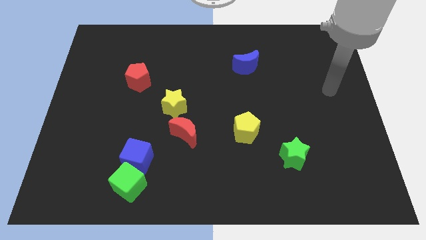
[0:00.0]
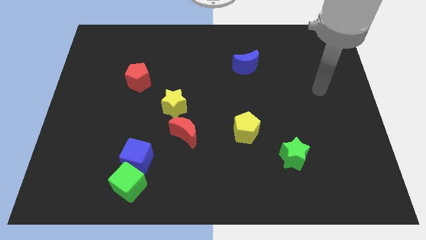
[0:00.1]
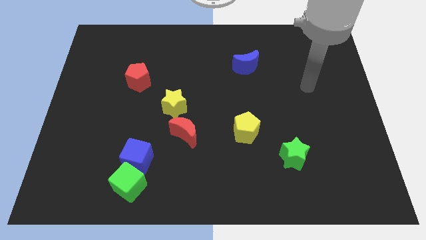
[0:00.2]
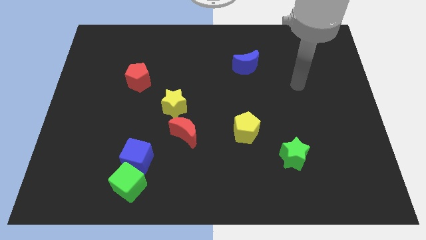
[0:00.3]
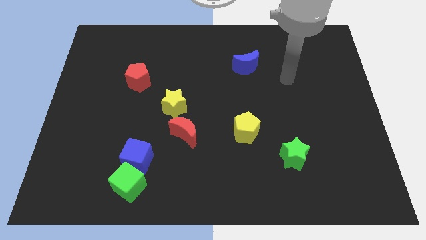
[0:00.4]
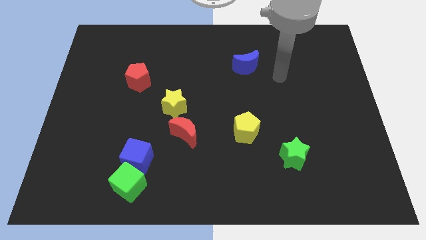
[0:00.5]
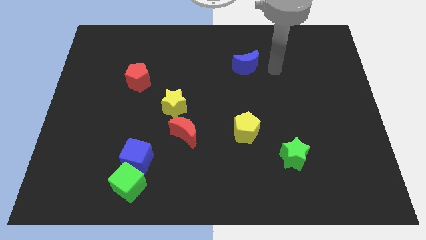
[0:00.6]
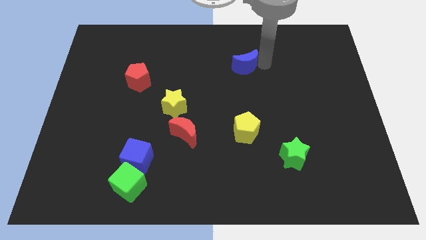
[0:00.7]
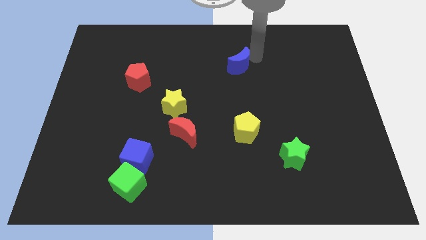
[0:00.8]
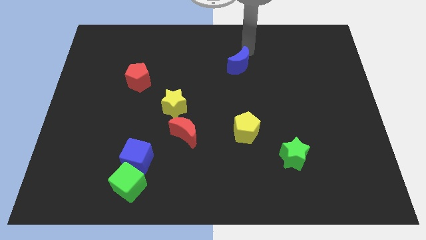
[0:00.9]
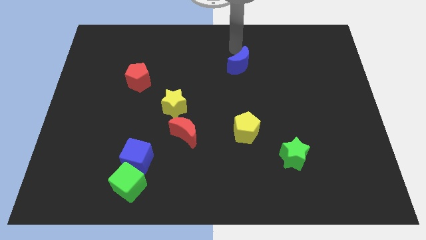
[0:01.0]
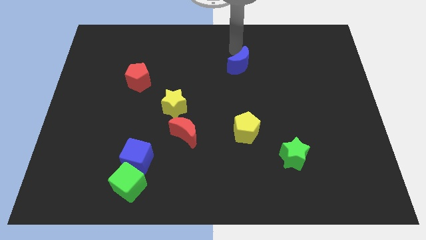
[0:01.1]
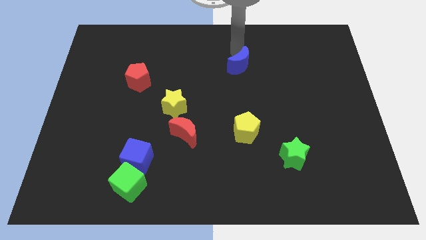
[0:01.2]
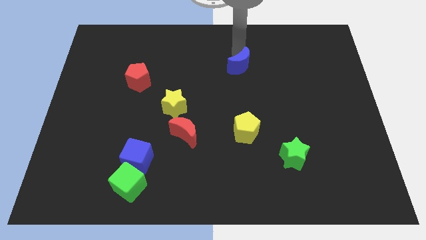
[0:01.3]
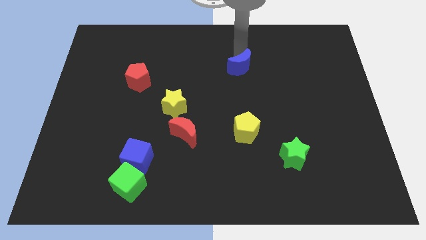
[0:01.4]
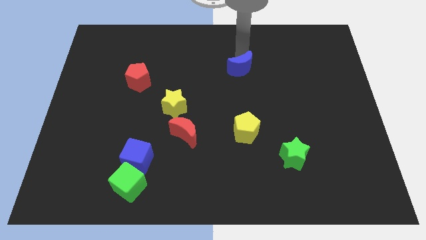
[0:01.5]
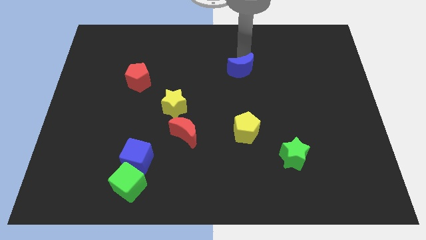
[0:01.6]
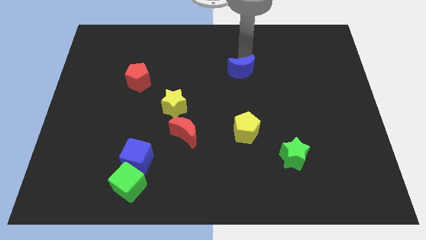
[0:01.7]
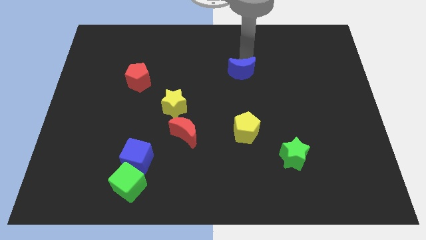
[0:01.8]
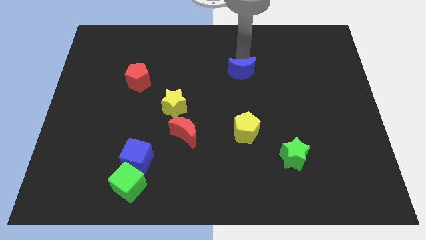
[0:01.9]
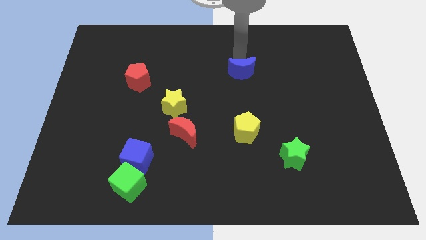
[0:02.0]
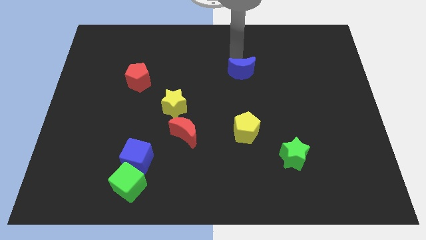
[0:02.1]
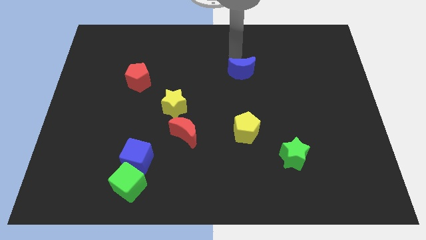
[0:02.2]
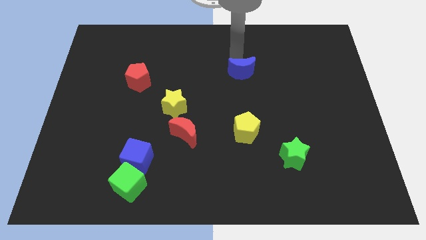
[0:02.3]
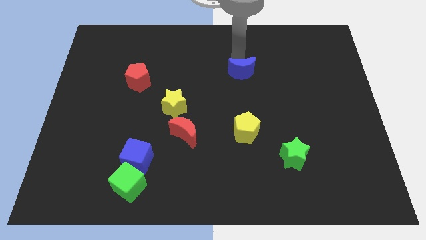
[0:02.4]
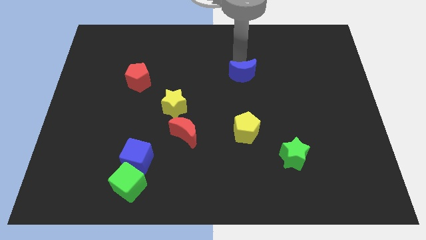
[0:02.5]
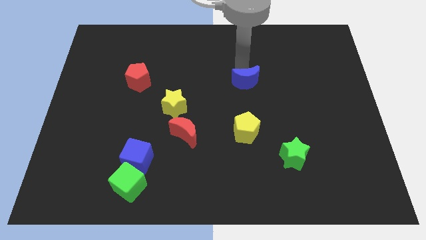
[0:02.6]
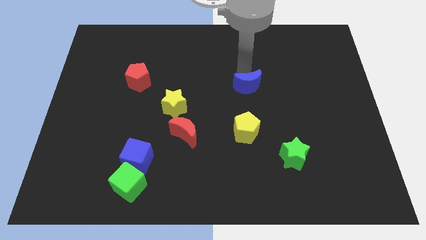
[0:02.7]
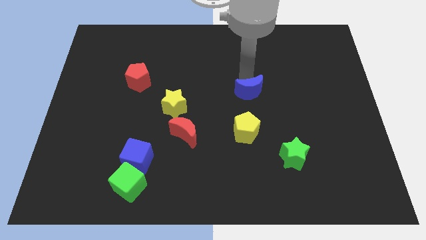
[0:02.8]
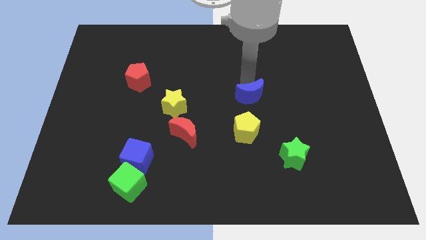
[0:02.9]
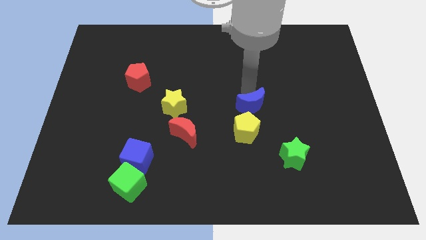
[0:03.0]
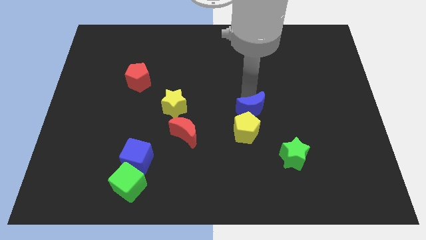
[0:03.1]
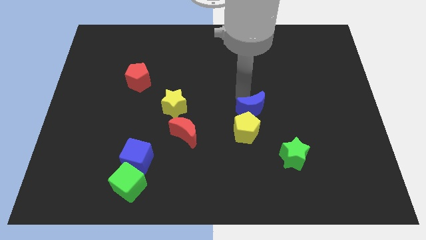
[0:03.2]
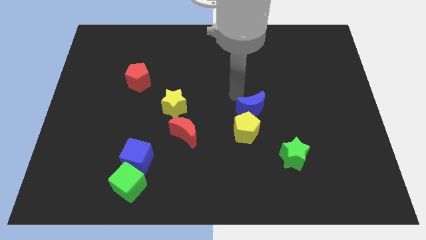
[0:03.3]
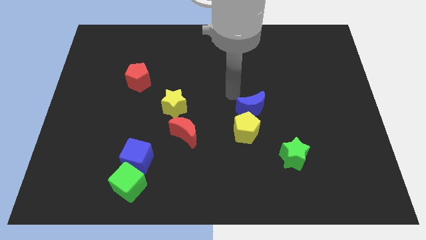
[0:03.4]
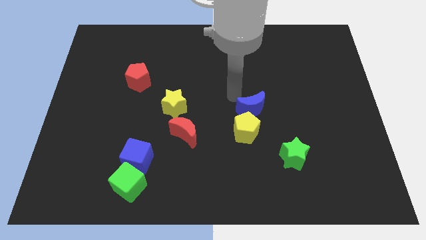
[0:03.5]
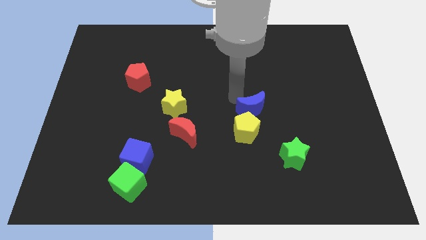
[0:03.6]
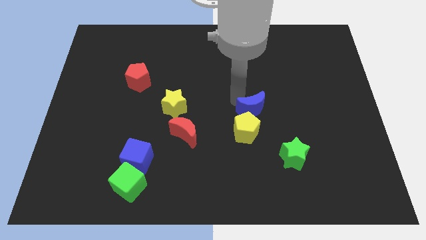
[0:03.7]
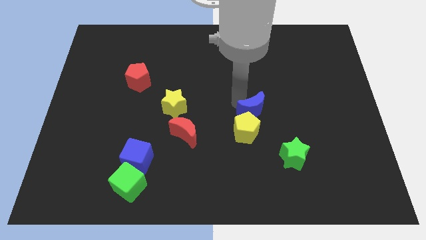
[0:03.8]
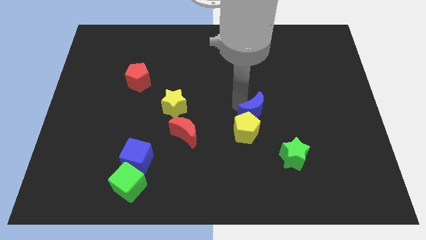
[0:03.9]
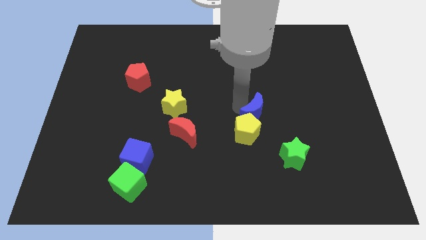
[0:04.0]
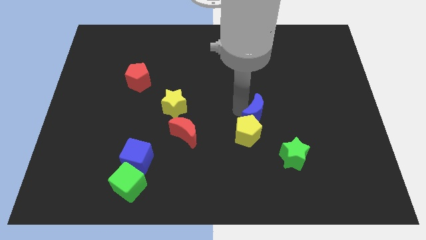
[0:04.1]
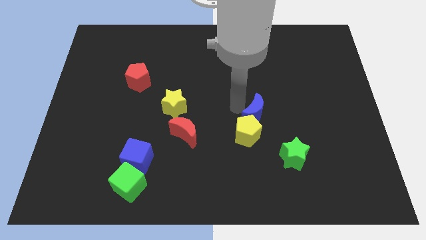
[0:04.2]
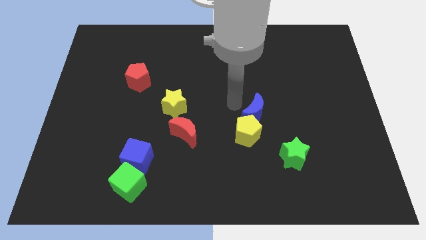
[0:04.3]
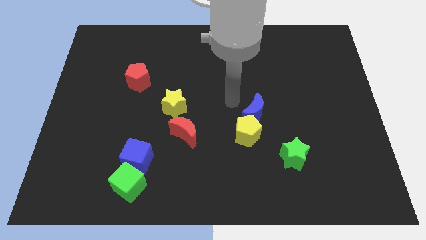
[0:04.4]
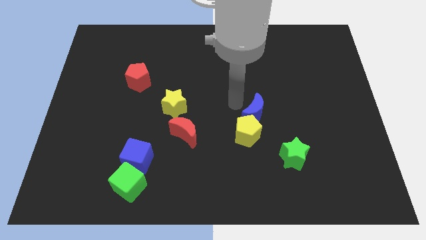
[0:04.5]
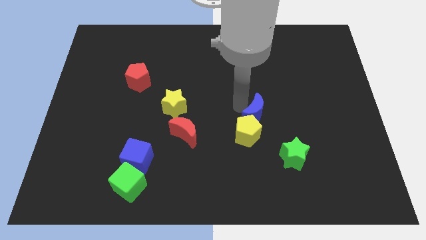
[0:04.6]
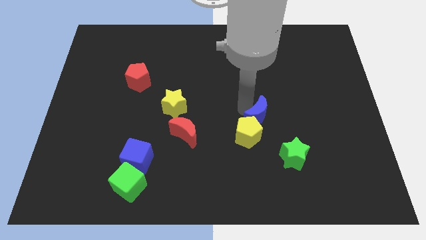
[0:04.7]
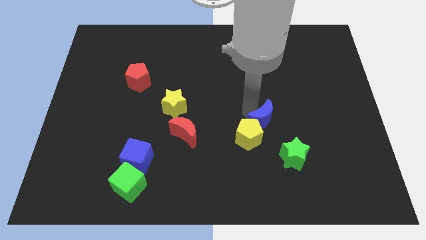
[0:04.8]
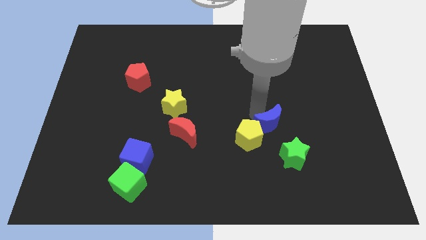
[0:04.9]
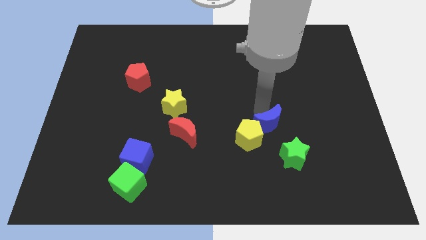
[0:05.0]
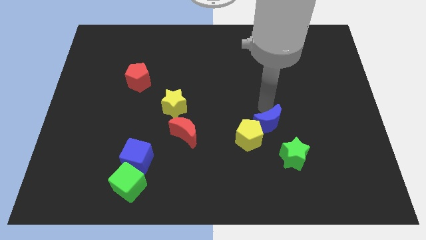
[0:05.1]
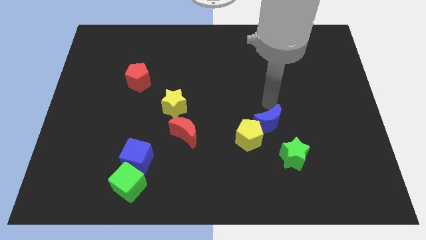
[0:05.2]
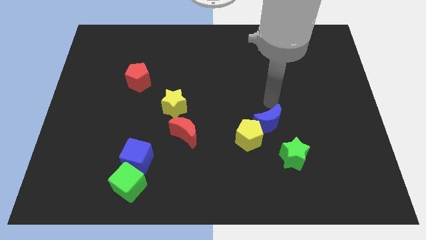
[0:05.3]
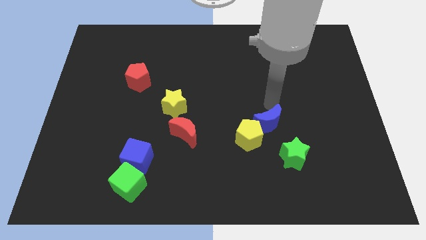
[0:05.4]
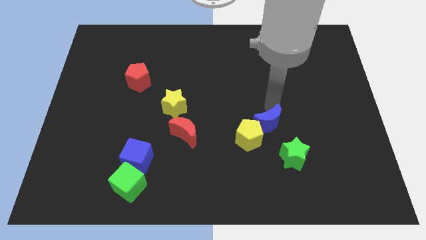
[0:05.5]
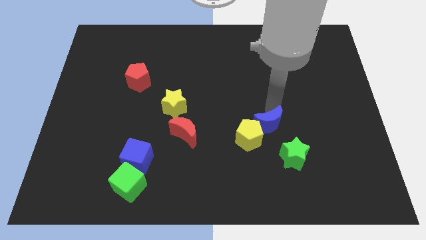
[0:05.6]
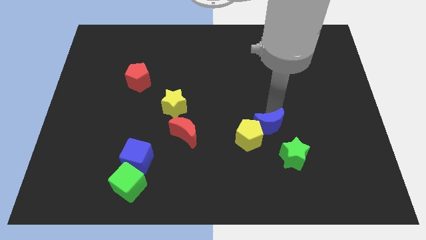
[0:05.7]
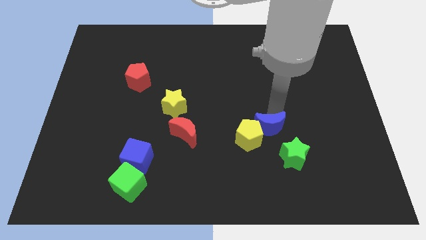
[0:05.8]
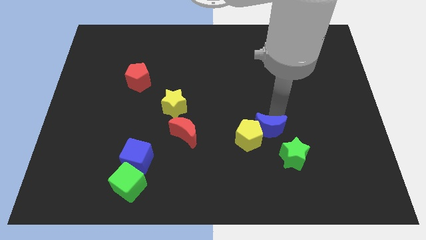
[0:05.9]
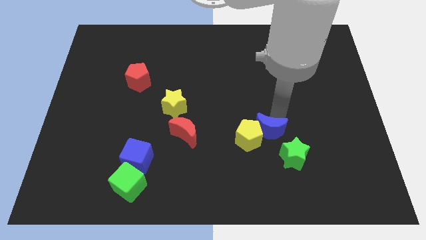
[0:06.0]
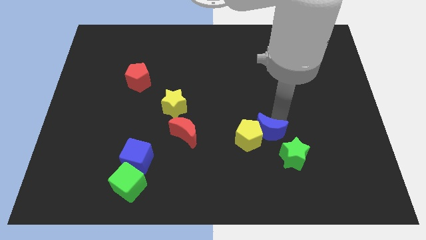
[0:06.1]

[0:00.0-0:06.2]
push the blue moon down

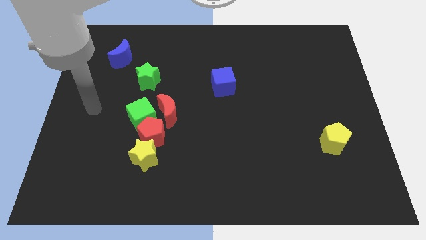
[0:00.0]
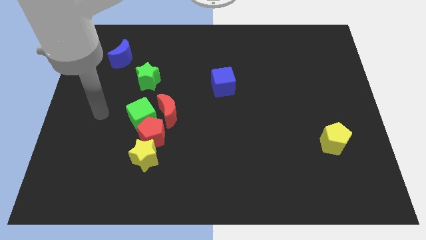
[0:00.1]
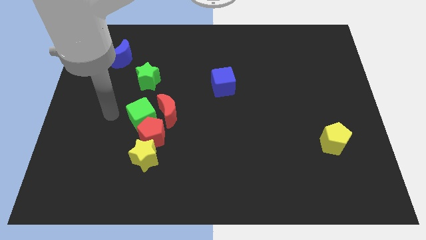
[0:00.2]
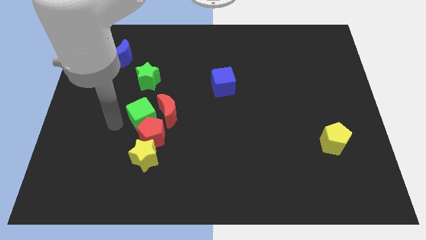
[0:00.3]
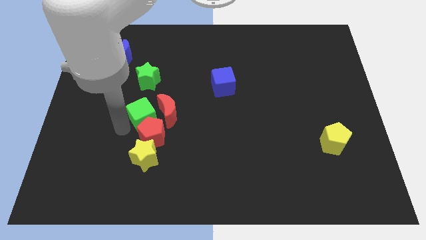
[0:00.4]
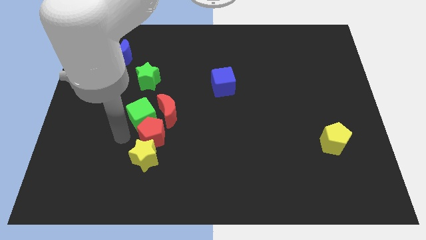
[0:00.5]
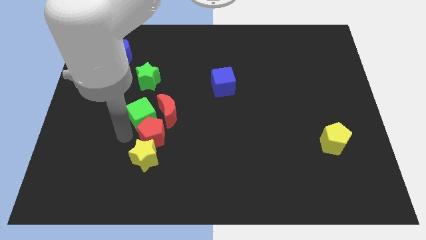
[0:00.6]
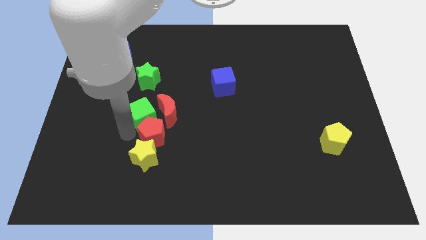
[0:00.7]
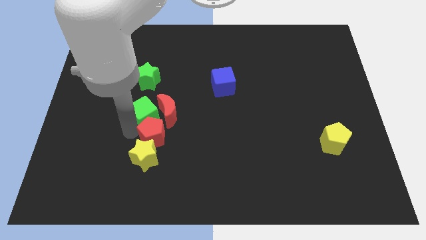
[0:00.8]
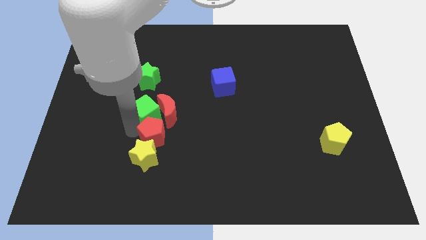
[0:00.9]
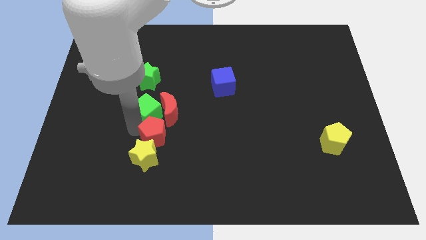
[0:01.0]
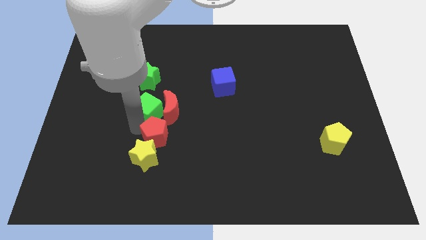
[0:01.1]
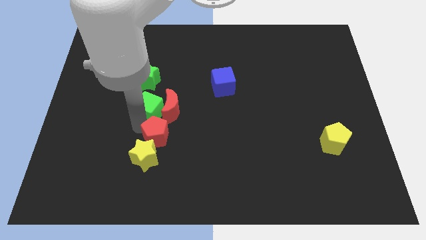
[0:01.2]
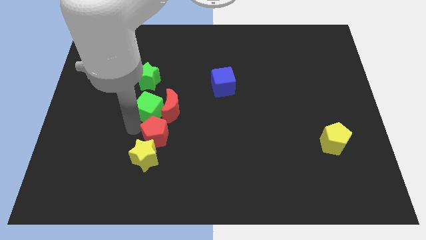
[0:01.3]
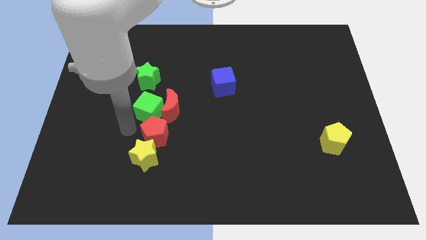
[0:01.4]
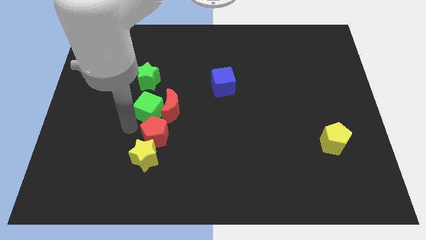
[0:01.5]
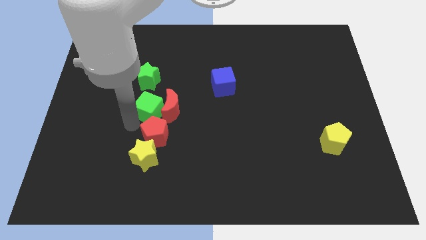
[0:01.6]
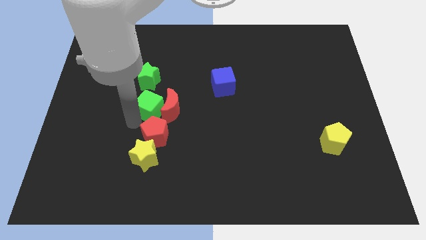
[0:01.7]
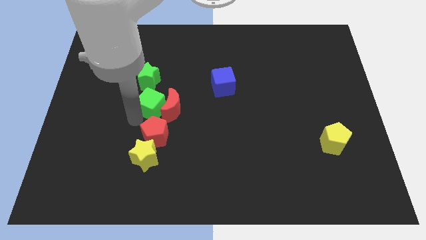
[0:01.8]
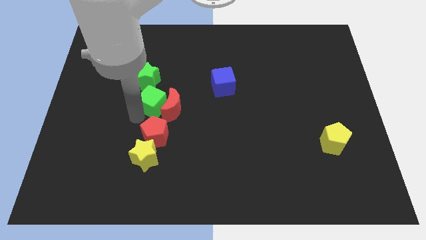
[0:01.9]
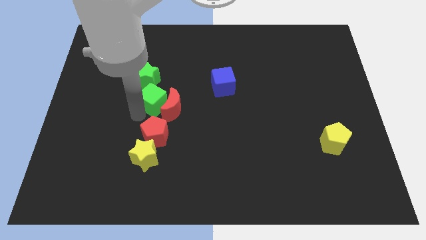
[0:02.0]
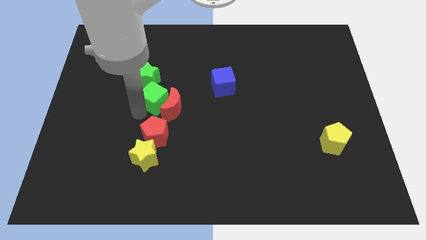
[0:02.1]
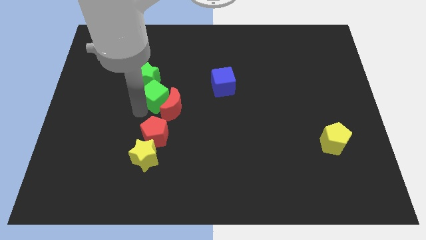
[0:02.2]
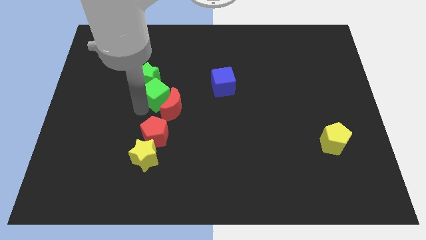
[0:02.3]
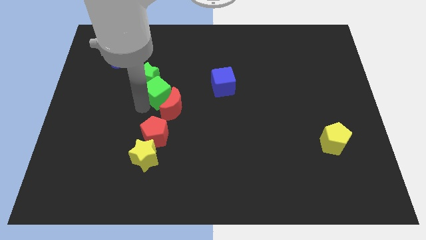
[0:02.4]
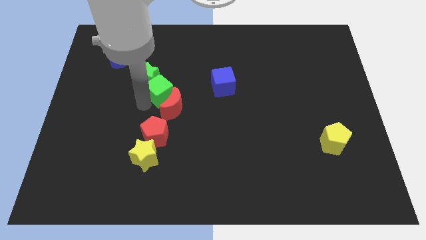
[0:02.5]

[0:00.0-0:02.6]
slightly move the green cube upwards and to the right
